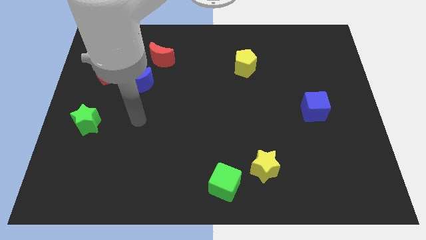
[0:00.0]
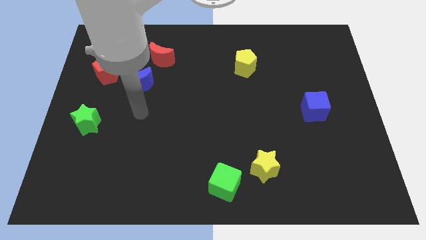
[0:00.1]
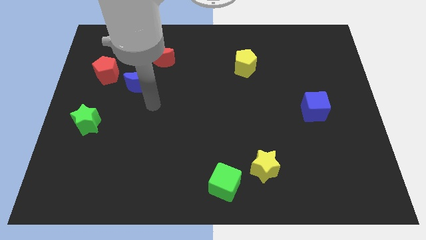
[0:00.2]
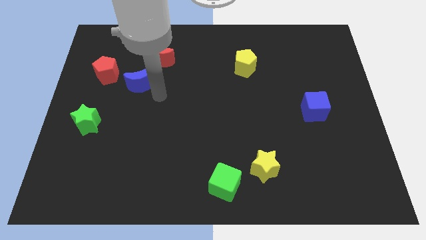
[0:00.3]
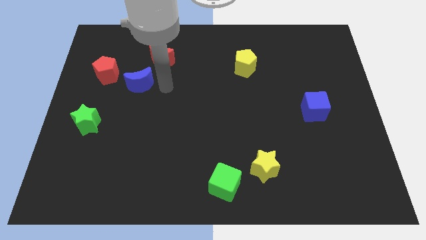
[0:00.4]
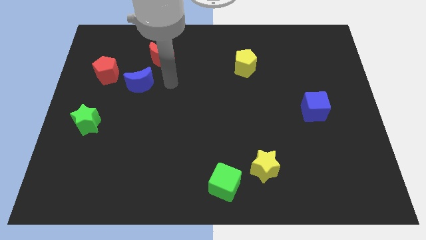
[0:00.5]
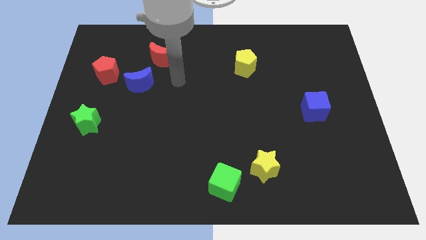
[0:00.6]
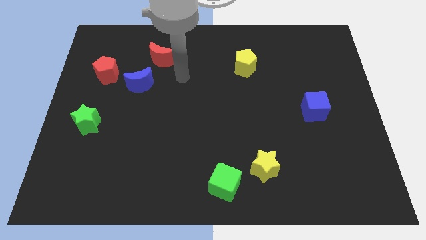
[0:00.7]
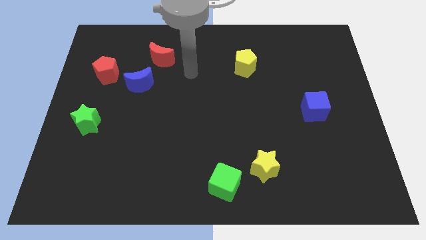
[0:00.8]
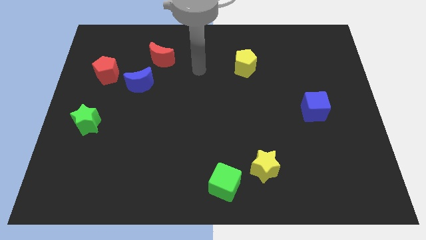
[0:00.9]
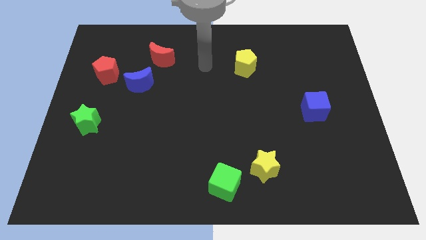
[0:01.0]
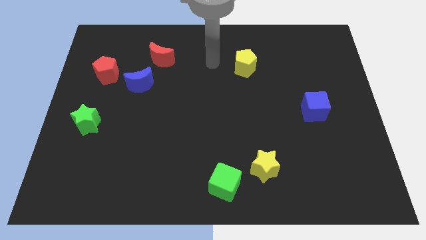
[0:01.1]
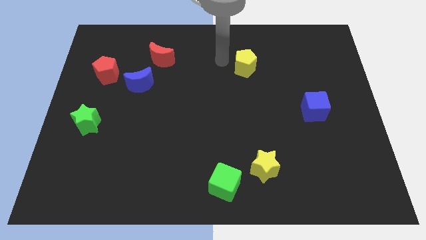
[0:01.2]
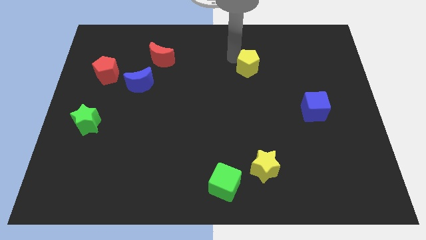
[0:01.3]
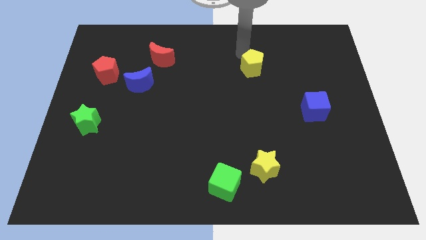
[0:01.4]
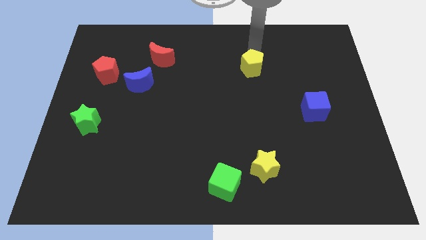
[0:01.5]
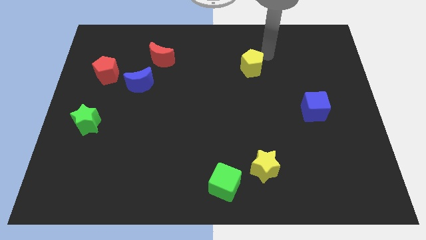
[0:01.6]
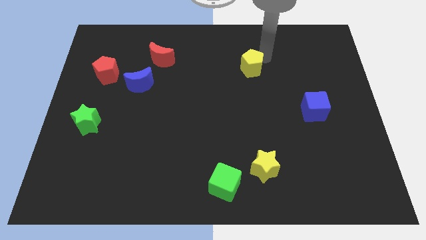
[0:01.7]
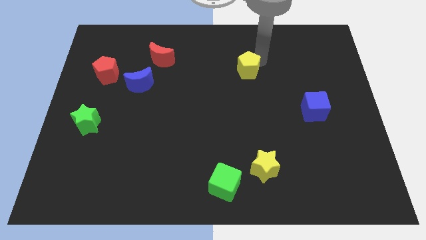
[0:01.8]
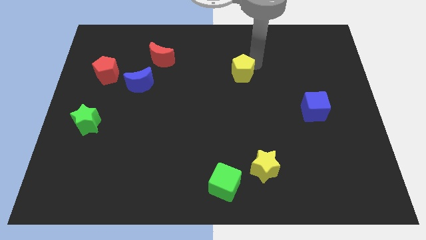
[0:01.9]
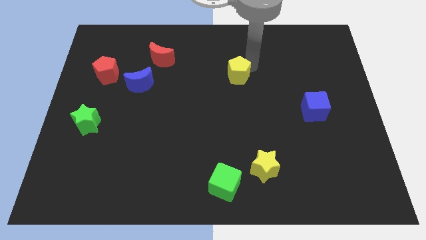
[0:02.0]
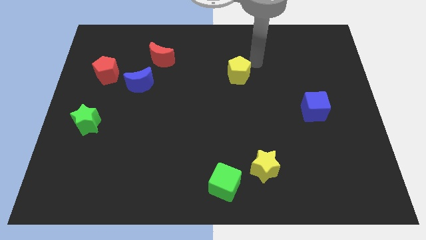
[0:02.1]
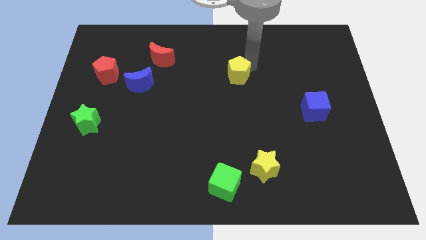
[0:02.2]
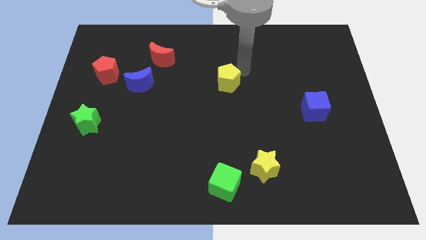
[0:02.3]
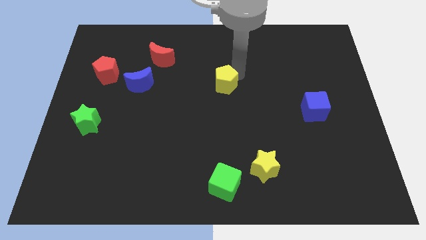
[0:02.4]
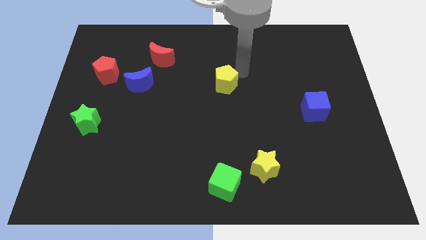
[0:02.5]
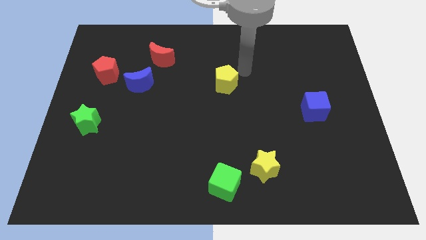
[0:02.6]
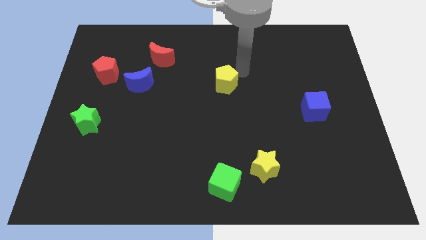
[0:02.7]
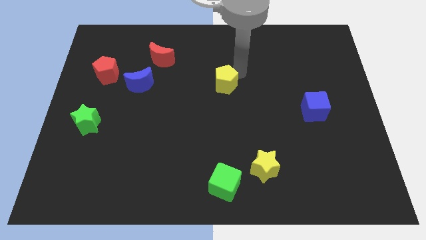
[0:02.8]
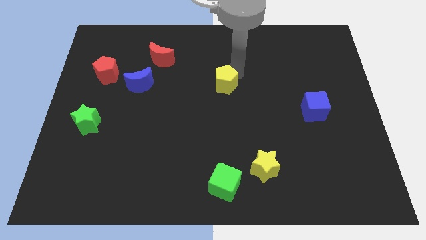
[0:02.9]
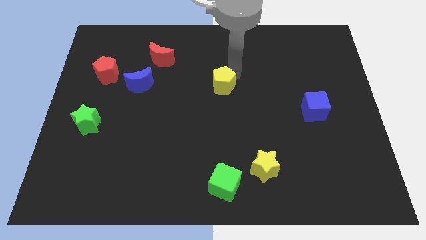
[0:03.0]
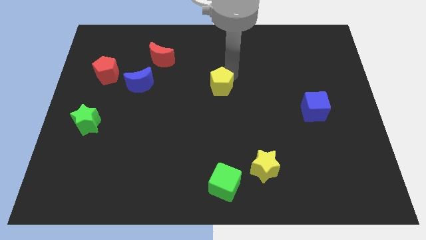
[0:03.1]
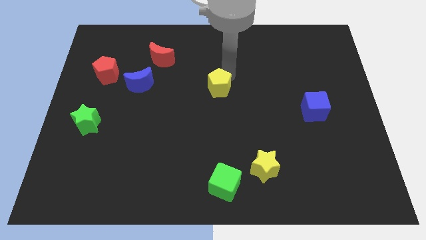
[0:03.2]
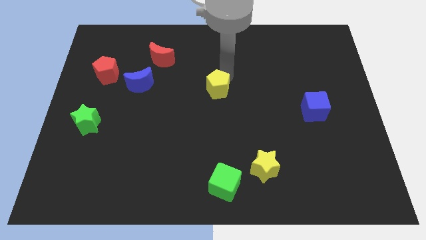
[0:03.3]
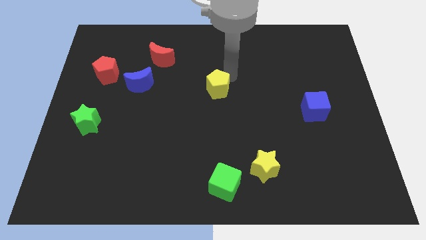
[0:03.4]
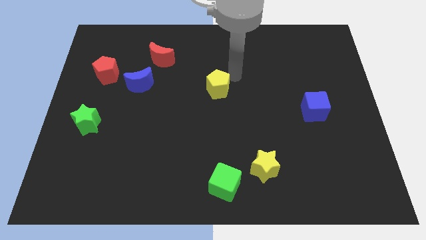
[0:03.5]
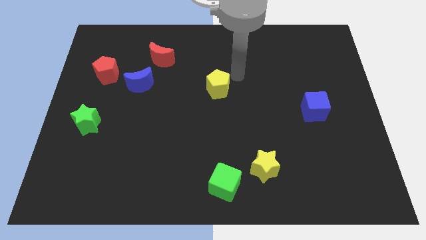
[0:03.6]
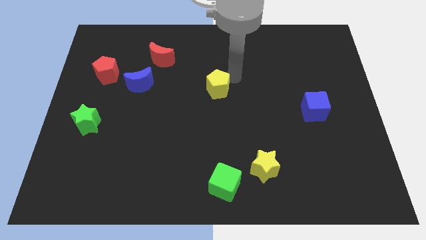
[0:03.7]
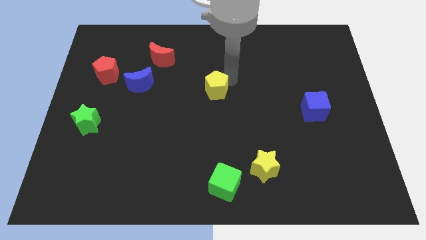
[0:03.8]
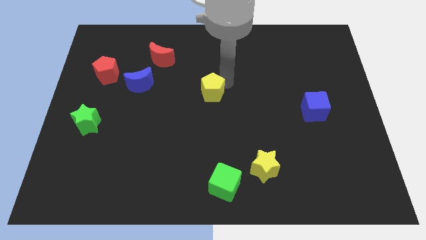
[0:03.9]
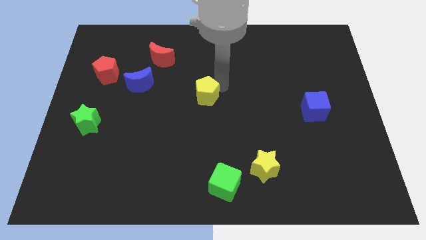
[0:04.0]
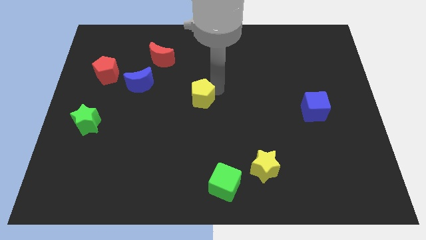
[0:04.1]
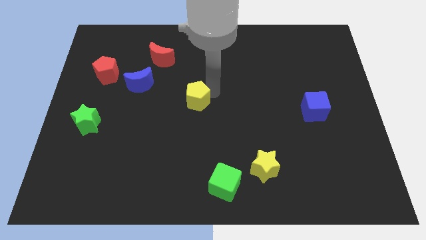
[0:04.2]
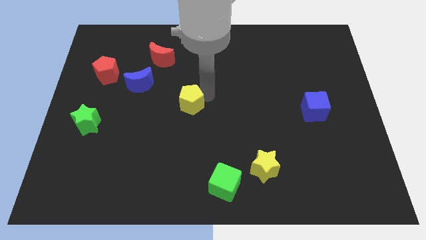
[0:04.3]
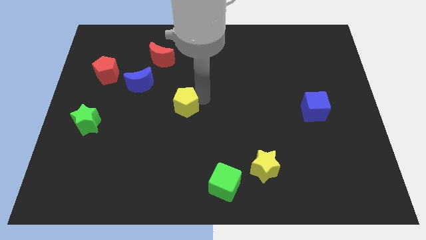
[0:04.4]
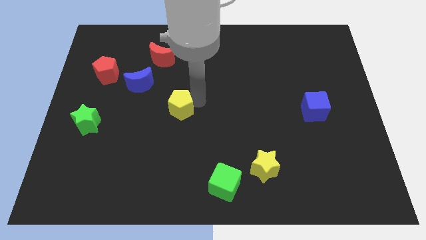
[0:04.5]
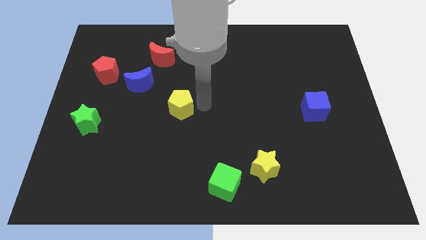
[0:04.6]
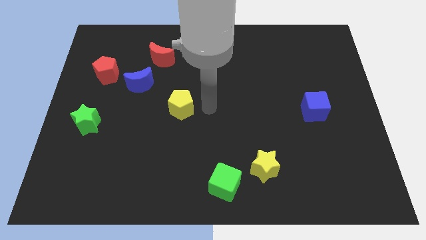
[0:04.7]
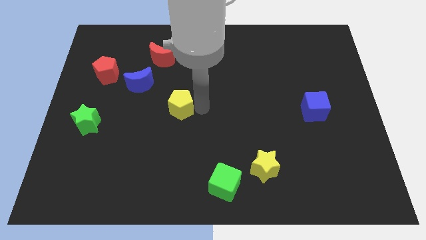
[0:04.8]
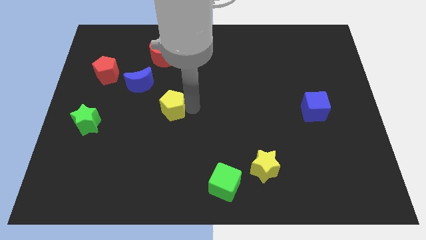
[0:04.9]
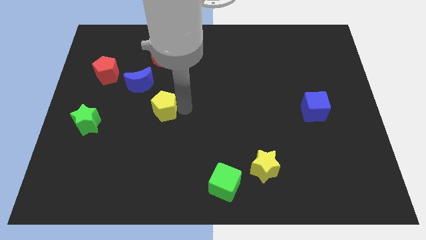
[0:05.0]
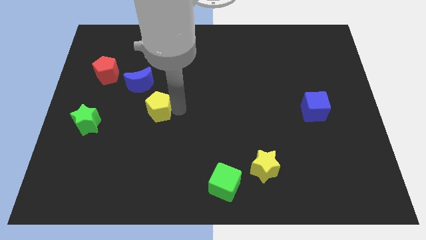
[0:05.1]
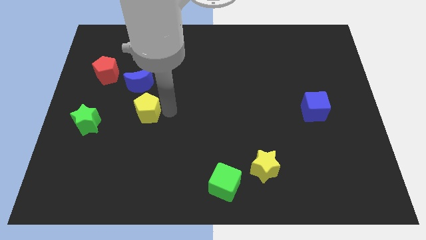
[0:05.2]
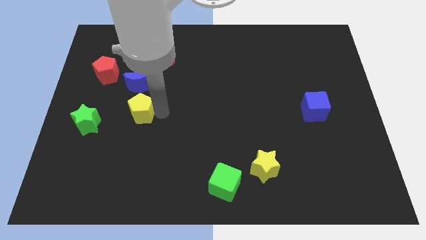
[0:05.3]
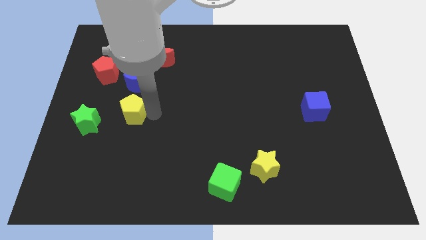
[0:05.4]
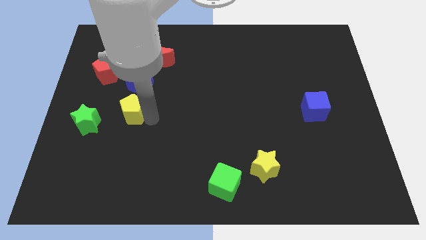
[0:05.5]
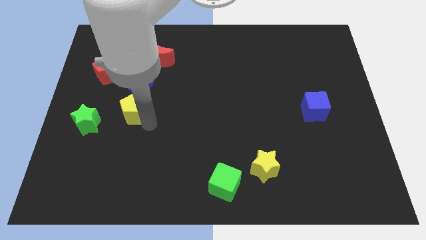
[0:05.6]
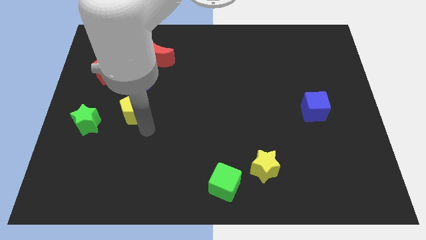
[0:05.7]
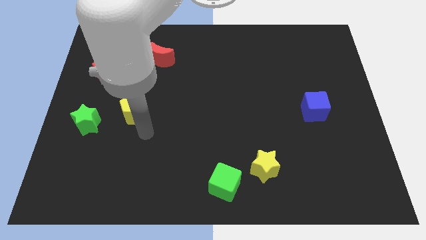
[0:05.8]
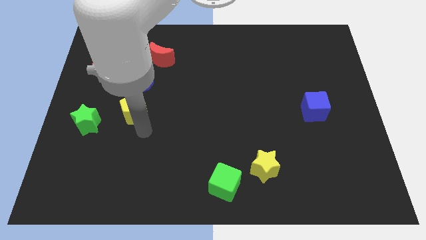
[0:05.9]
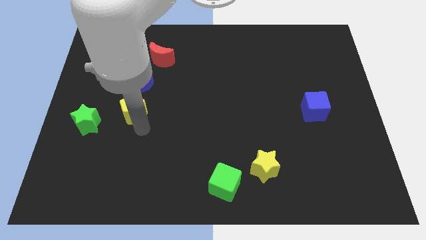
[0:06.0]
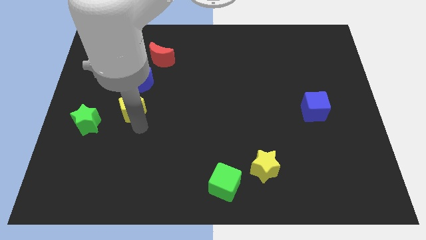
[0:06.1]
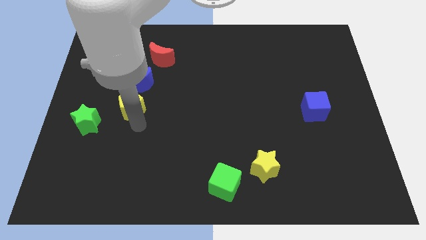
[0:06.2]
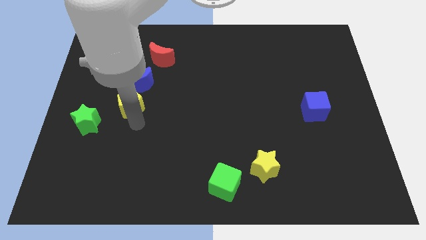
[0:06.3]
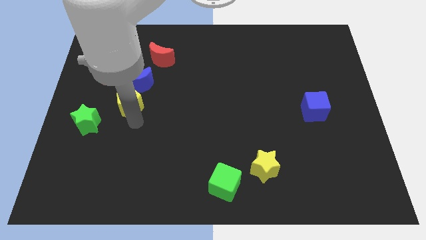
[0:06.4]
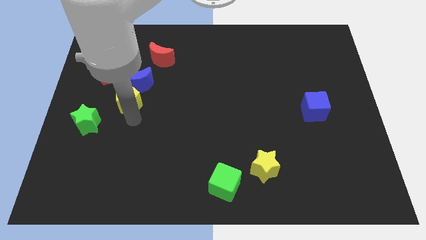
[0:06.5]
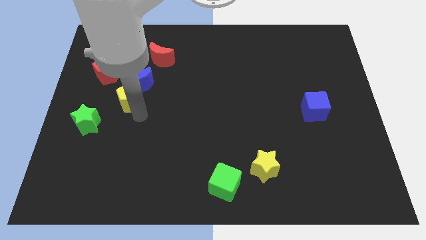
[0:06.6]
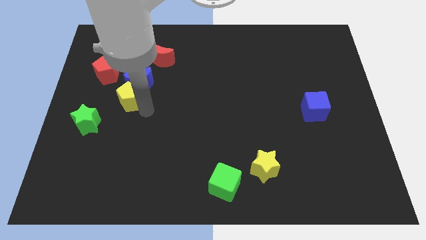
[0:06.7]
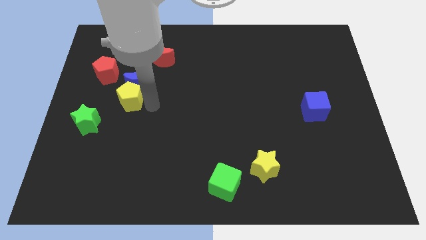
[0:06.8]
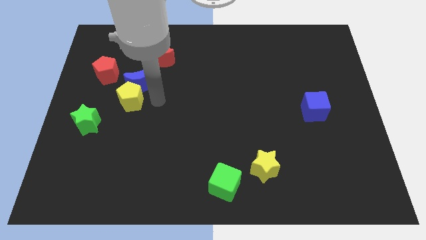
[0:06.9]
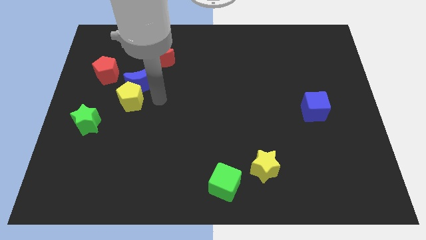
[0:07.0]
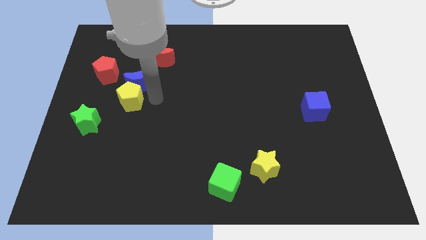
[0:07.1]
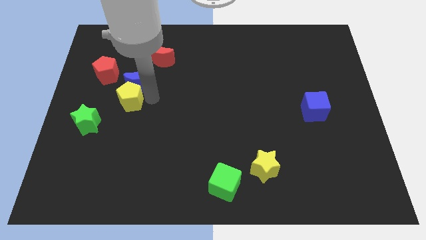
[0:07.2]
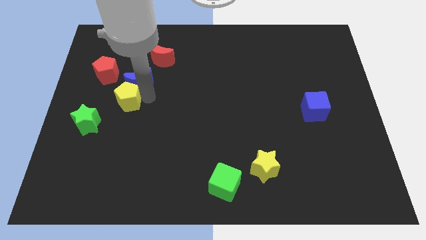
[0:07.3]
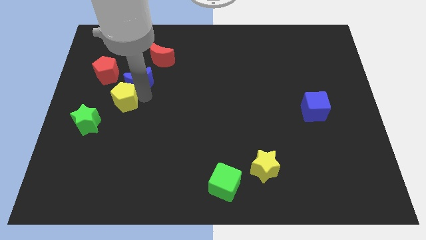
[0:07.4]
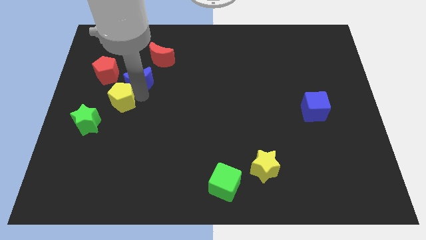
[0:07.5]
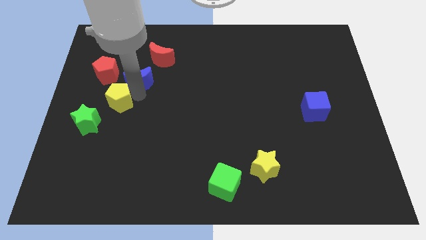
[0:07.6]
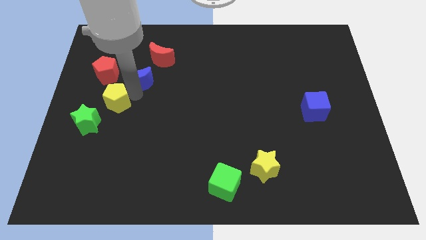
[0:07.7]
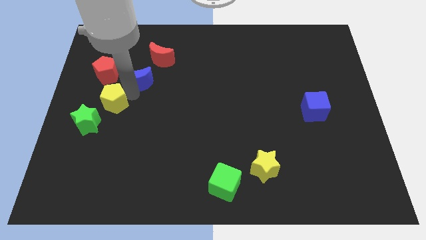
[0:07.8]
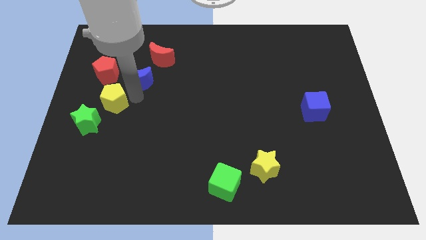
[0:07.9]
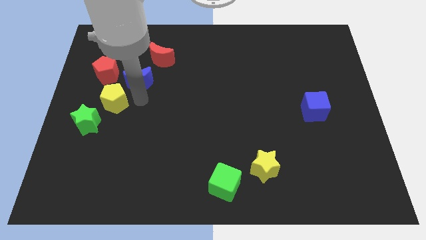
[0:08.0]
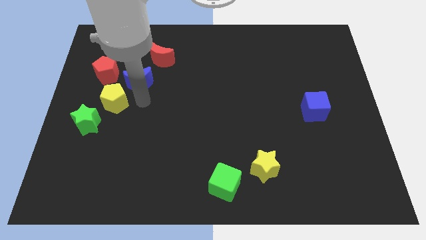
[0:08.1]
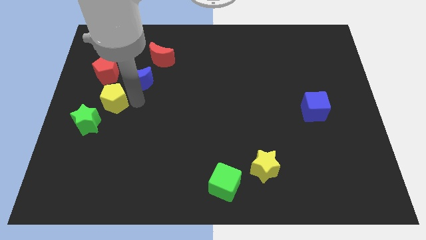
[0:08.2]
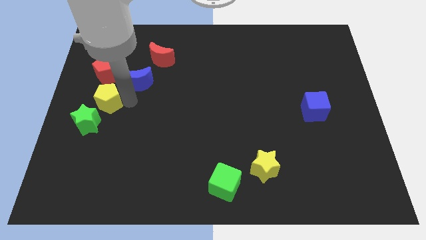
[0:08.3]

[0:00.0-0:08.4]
push the yellow pentagon to the left side of the board
